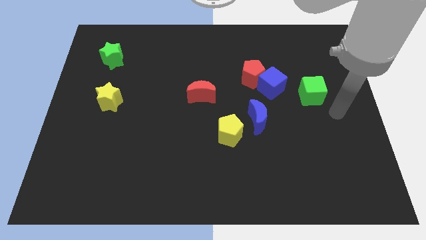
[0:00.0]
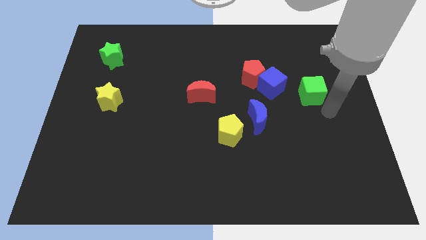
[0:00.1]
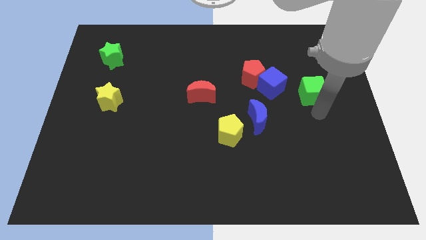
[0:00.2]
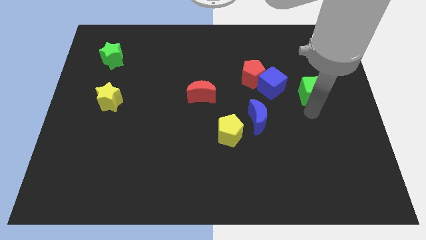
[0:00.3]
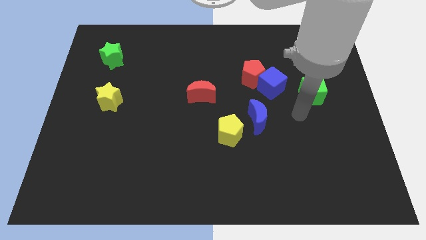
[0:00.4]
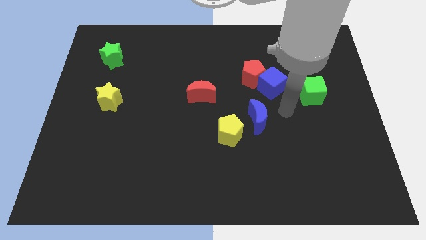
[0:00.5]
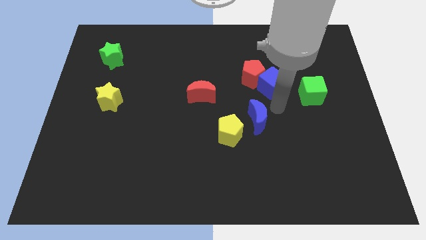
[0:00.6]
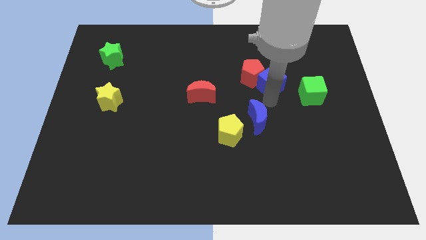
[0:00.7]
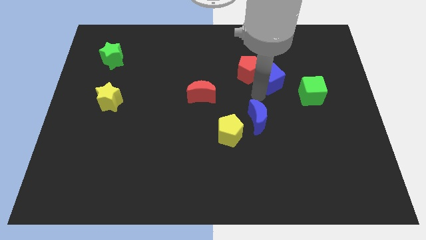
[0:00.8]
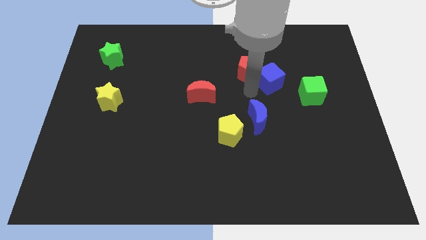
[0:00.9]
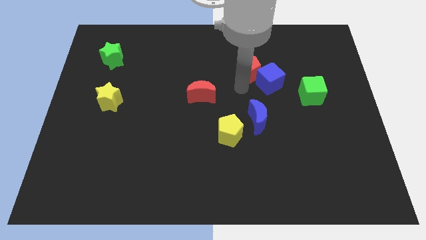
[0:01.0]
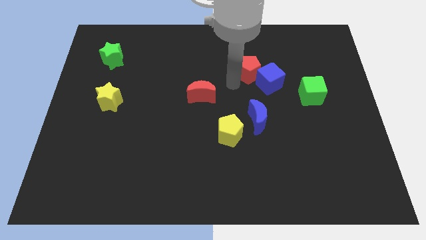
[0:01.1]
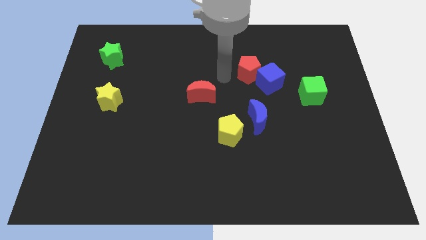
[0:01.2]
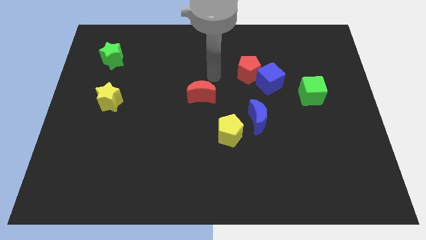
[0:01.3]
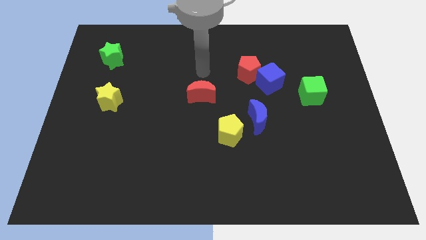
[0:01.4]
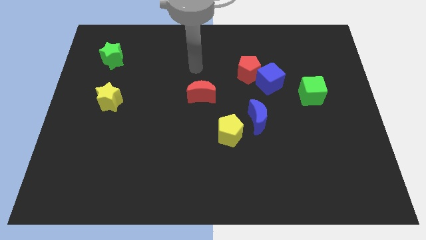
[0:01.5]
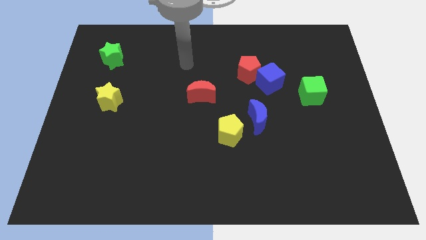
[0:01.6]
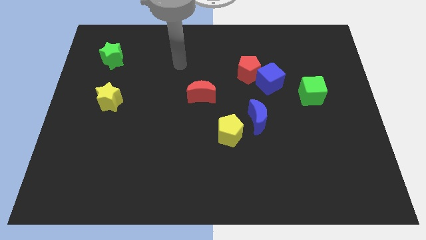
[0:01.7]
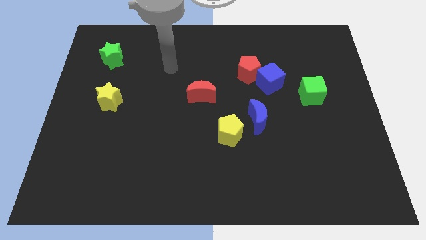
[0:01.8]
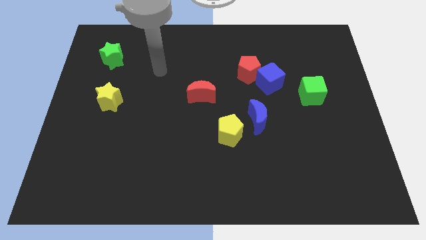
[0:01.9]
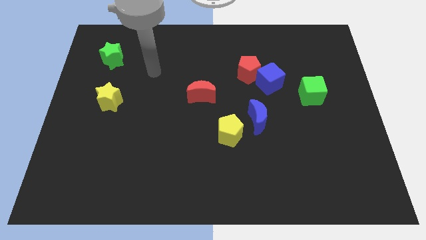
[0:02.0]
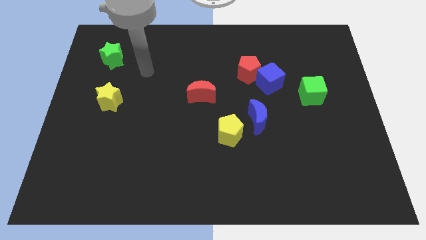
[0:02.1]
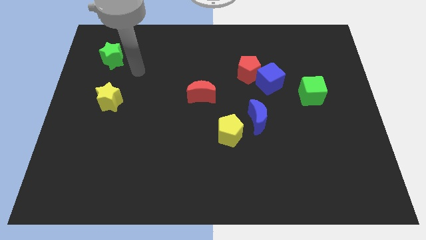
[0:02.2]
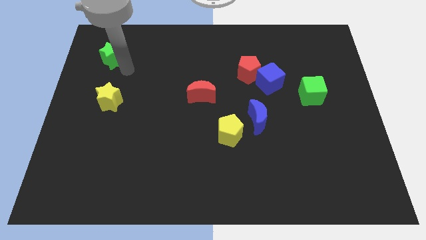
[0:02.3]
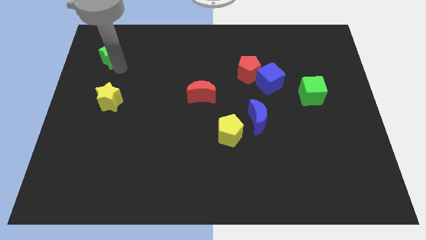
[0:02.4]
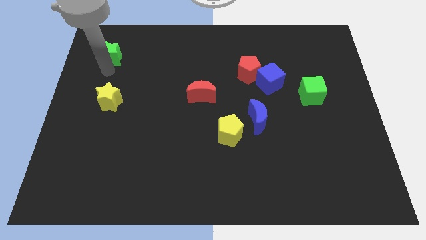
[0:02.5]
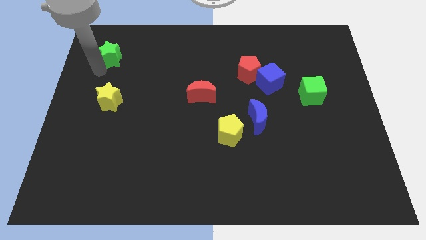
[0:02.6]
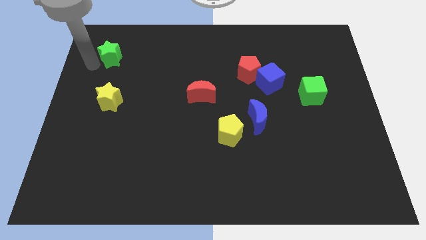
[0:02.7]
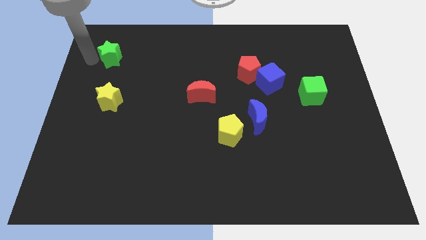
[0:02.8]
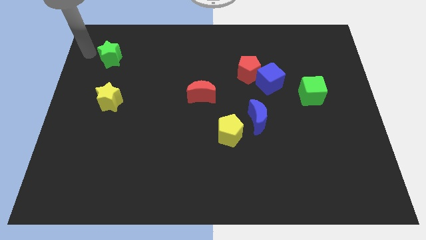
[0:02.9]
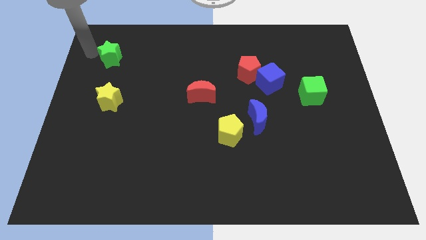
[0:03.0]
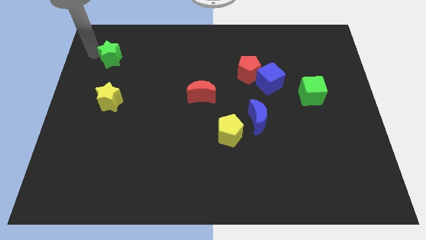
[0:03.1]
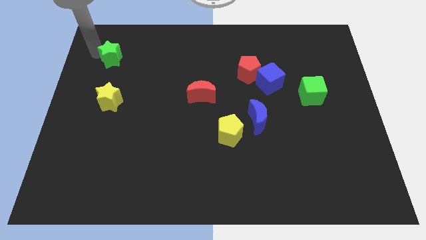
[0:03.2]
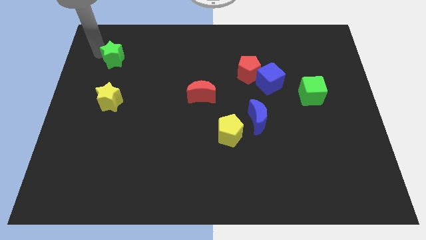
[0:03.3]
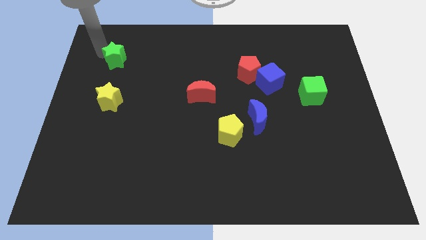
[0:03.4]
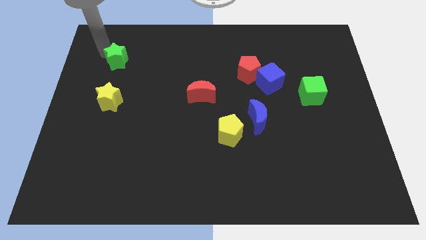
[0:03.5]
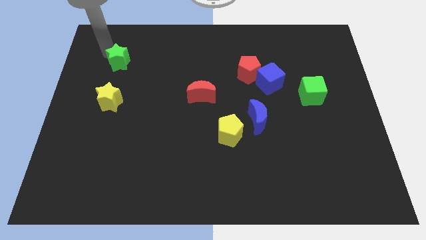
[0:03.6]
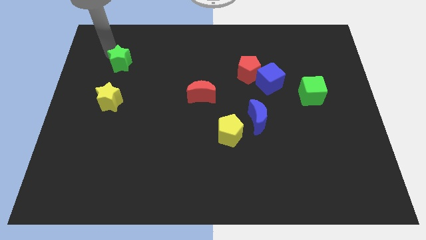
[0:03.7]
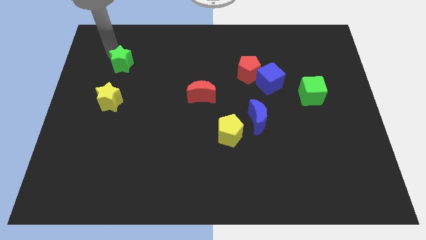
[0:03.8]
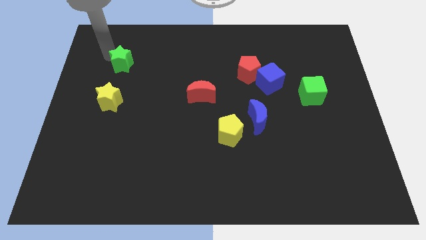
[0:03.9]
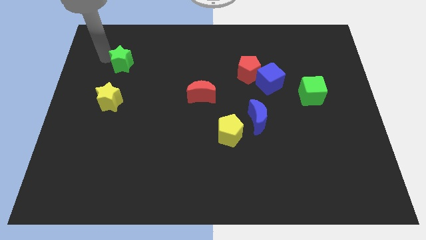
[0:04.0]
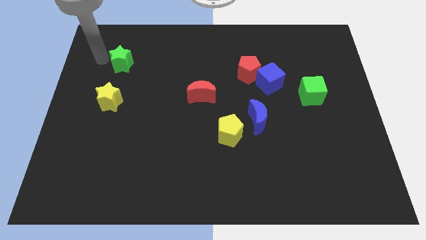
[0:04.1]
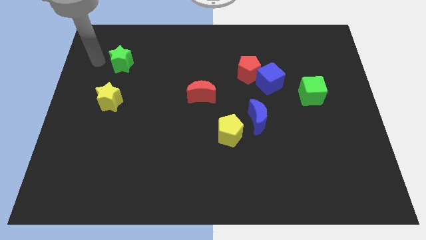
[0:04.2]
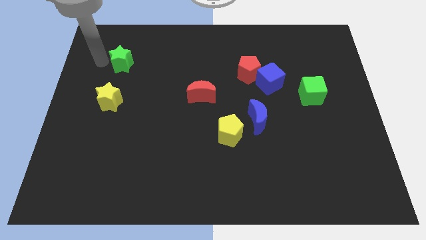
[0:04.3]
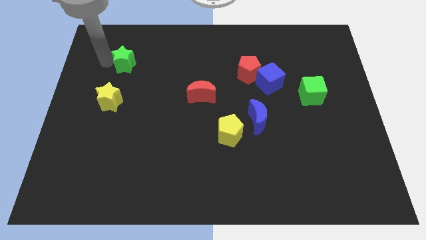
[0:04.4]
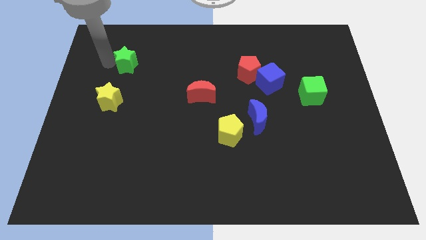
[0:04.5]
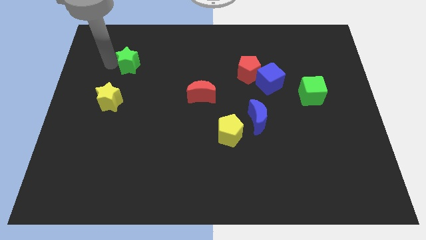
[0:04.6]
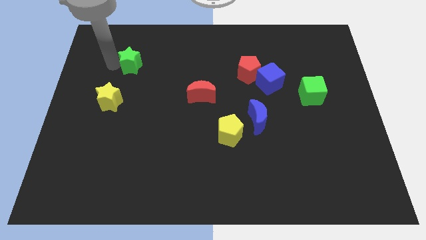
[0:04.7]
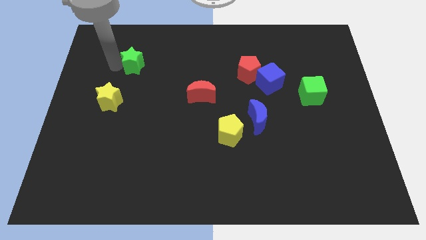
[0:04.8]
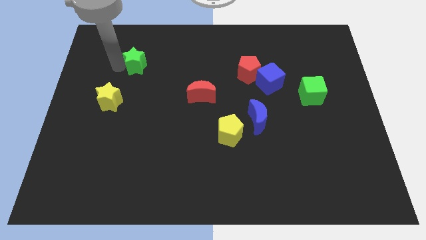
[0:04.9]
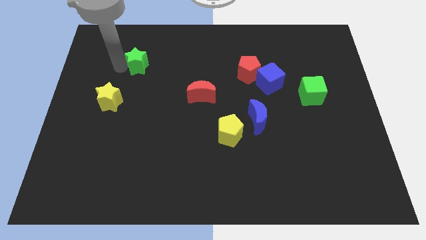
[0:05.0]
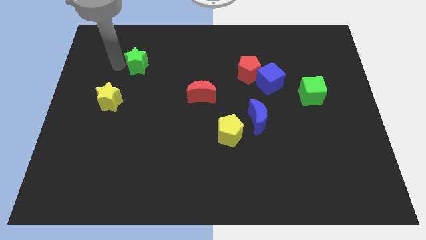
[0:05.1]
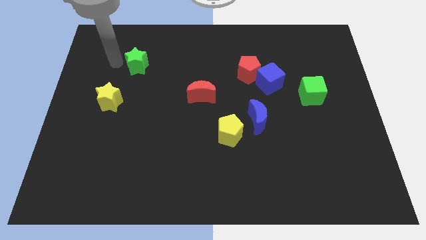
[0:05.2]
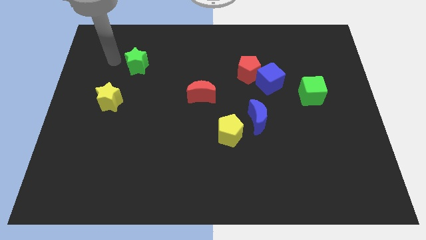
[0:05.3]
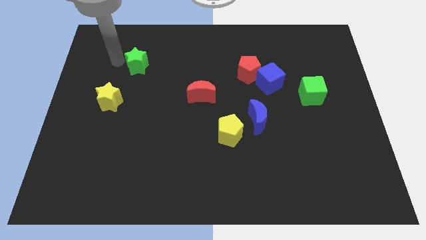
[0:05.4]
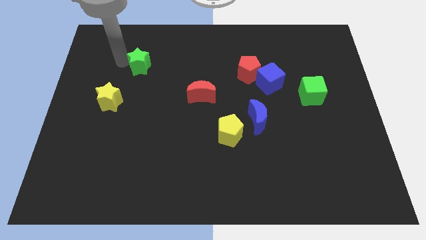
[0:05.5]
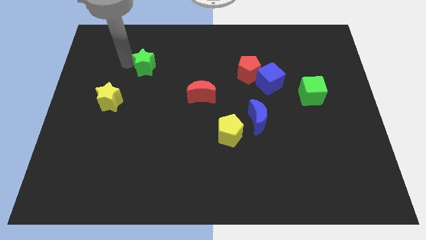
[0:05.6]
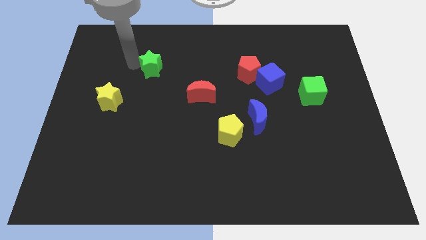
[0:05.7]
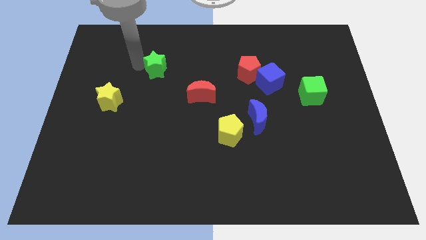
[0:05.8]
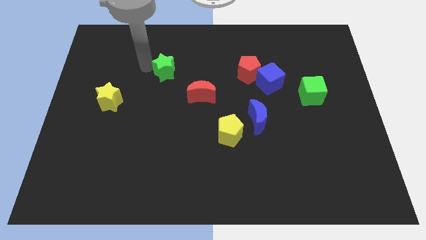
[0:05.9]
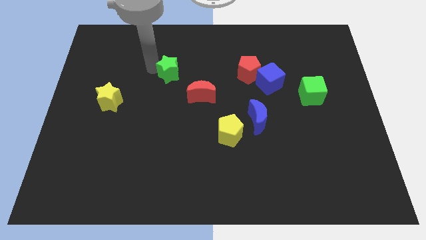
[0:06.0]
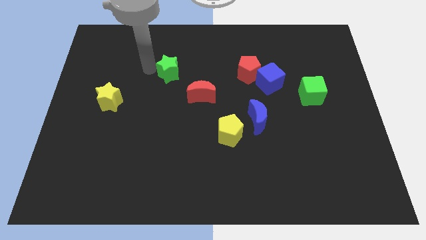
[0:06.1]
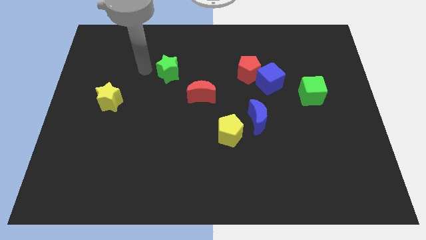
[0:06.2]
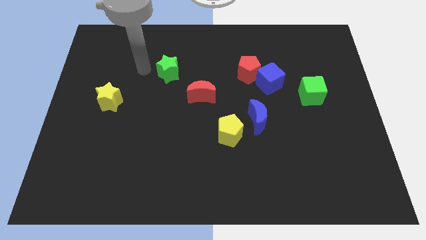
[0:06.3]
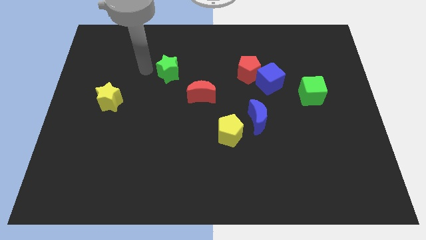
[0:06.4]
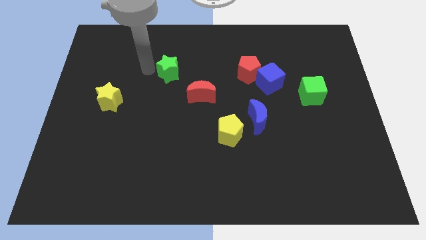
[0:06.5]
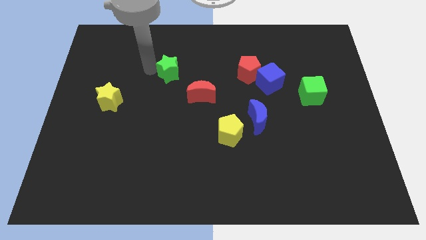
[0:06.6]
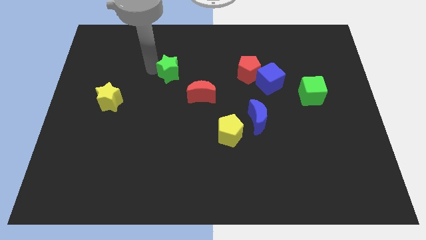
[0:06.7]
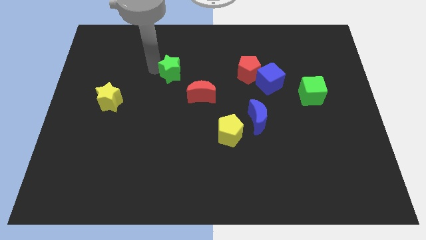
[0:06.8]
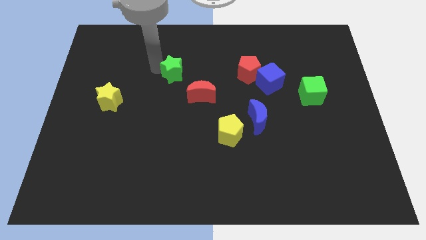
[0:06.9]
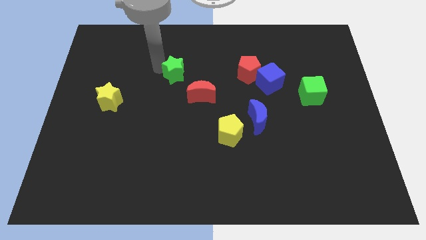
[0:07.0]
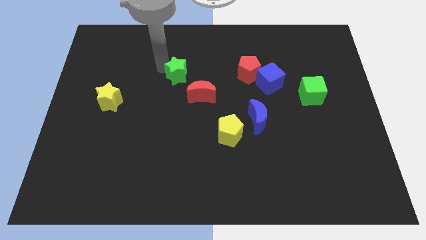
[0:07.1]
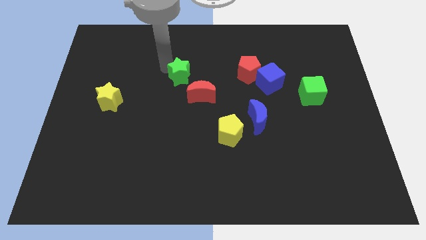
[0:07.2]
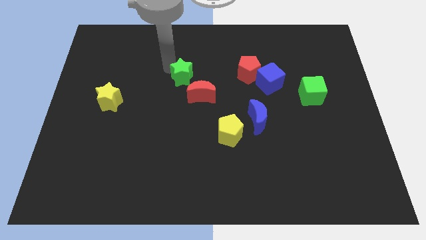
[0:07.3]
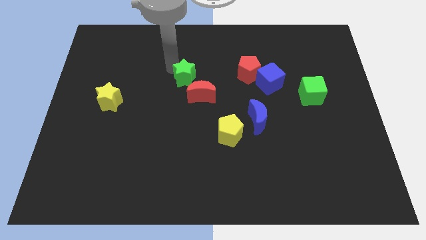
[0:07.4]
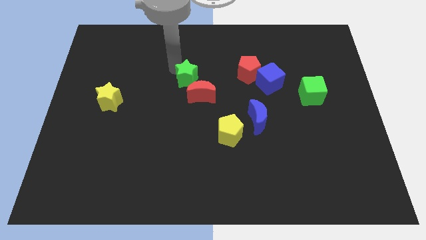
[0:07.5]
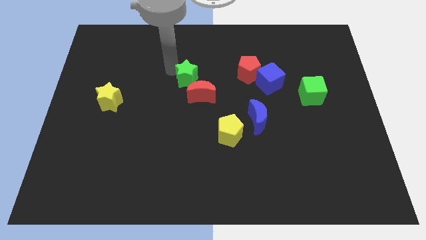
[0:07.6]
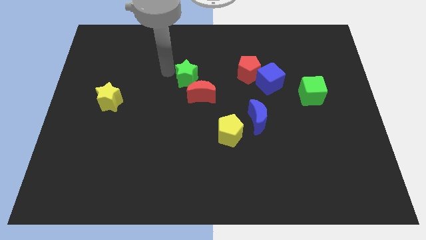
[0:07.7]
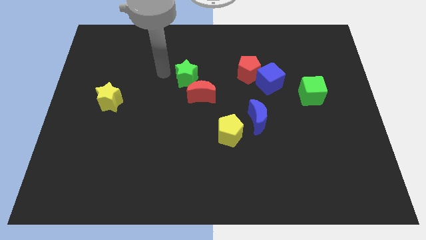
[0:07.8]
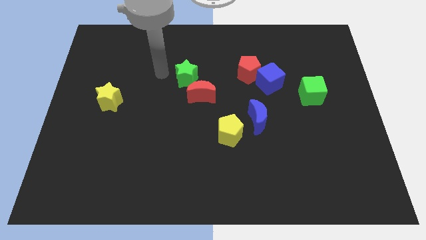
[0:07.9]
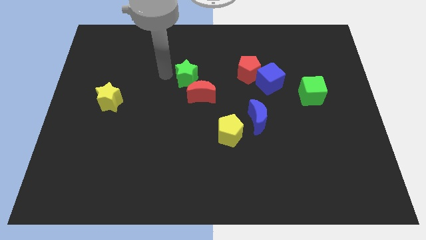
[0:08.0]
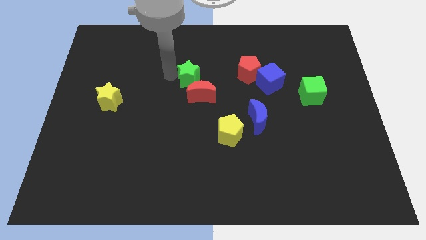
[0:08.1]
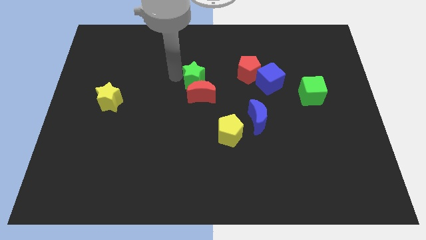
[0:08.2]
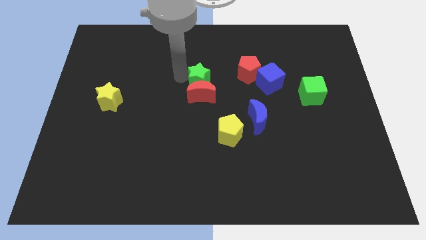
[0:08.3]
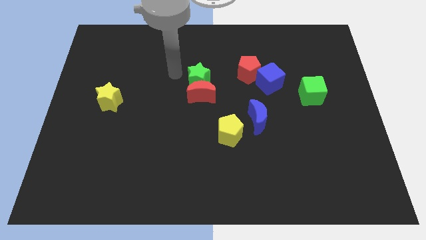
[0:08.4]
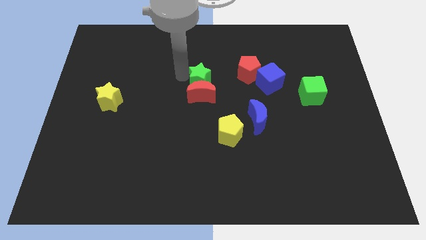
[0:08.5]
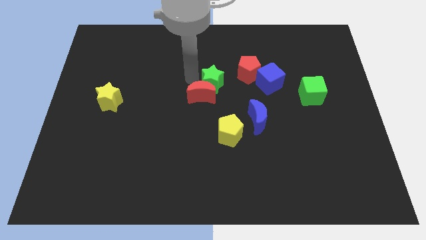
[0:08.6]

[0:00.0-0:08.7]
push the green star to the right of the red moon
